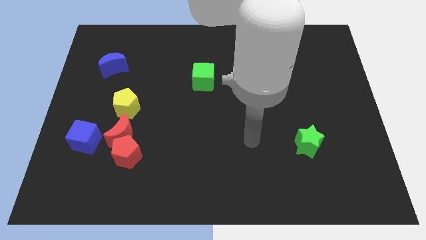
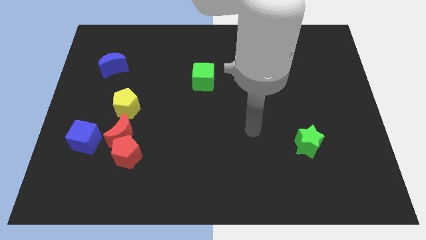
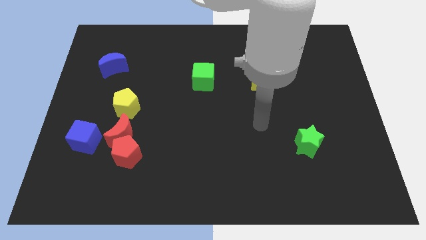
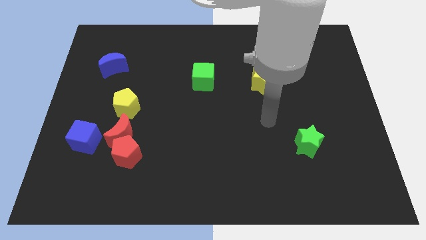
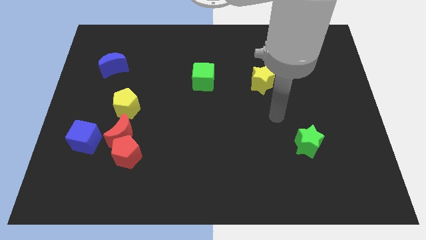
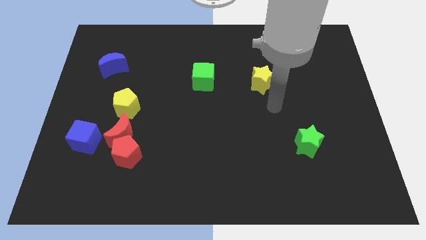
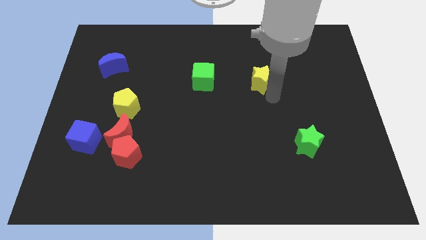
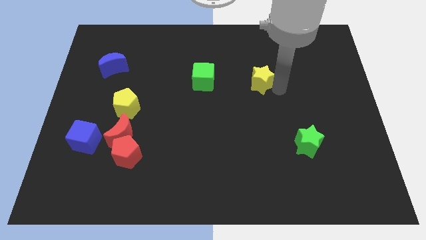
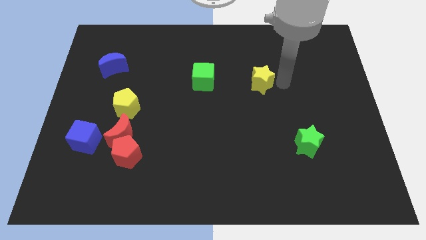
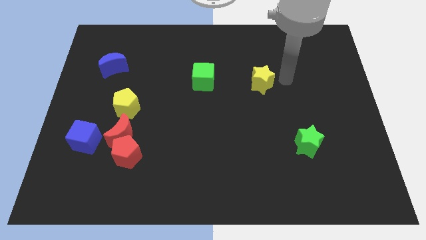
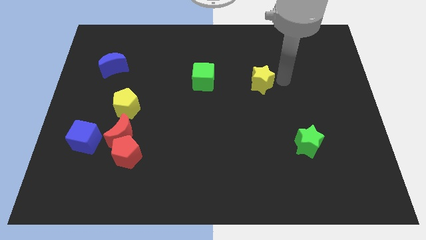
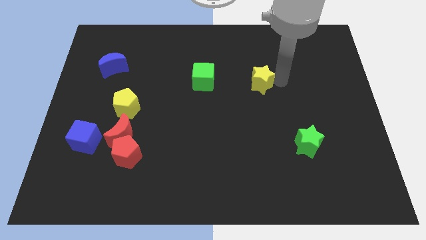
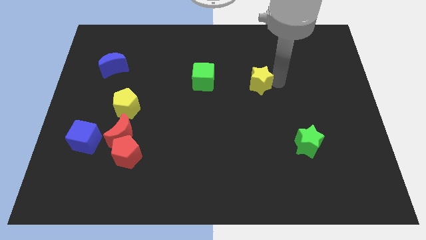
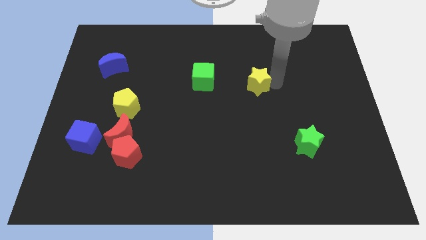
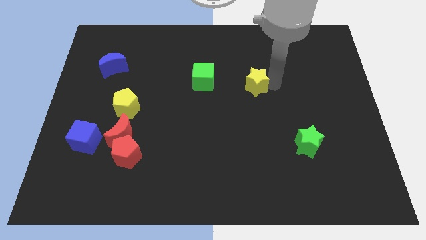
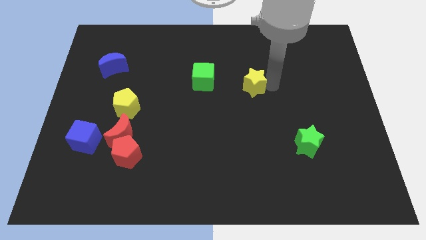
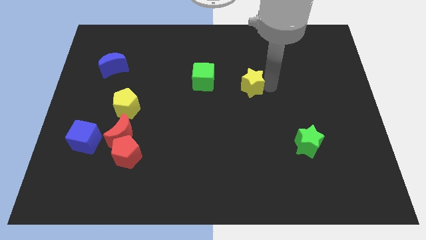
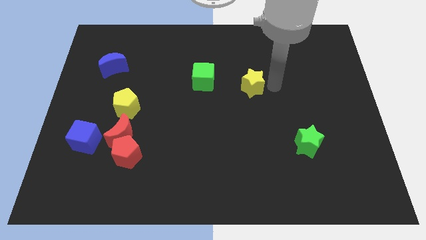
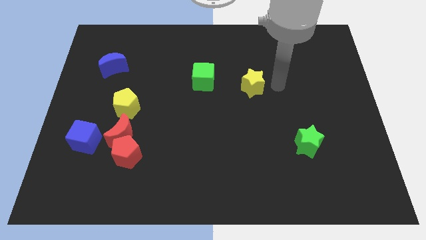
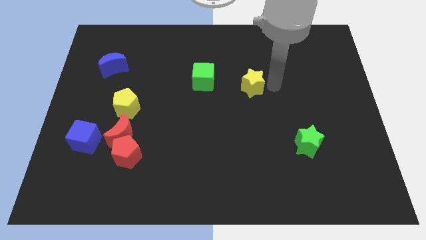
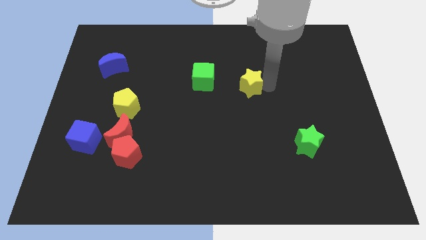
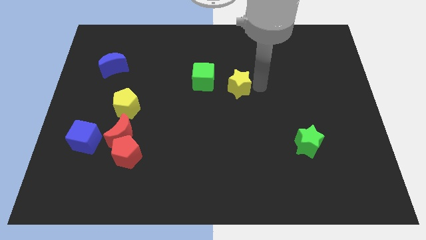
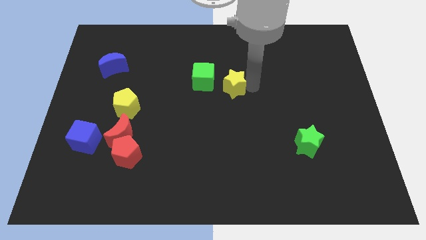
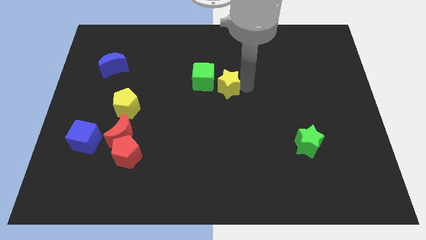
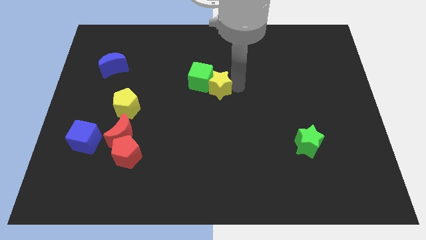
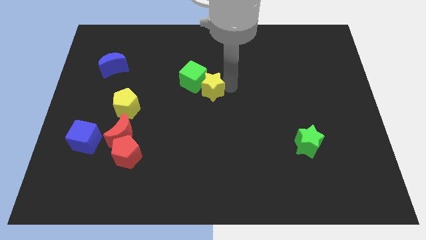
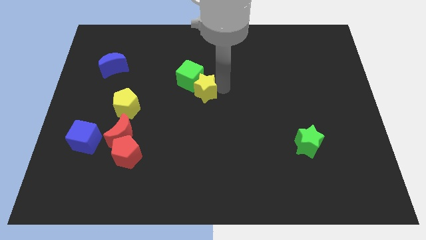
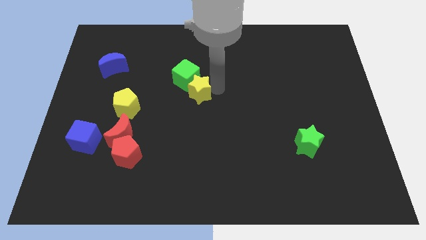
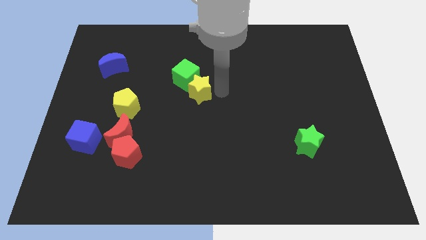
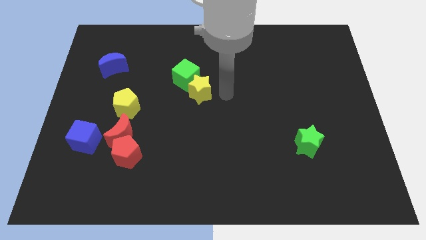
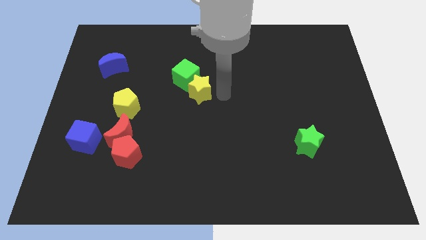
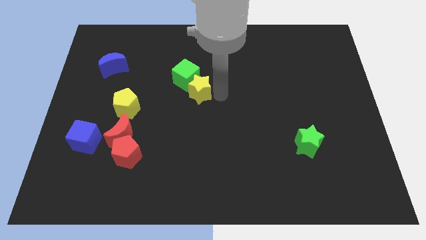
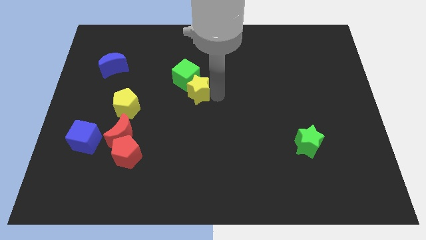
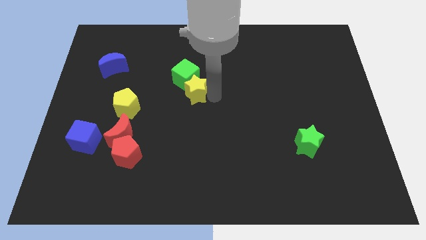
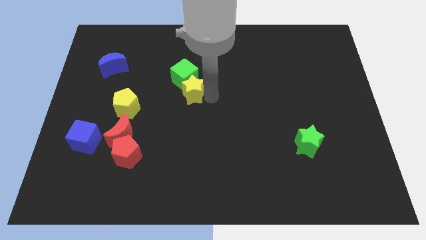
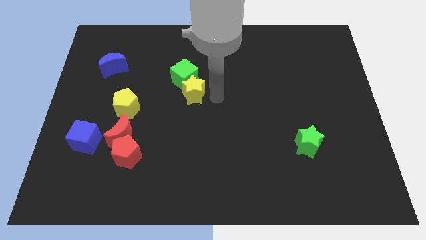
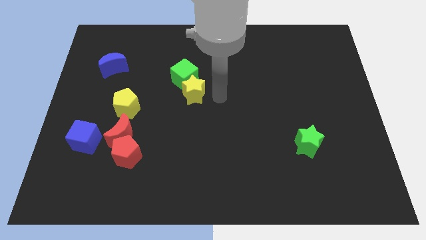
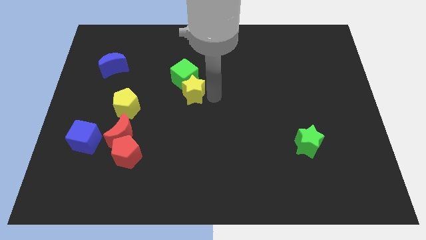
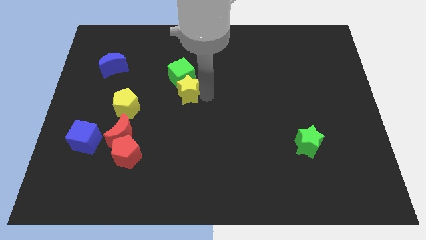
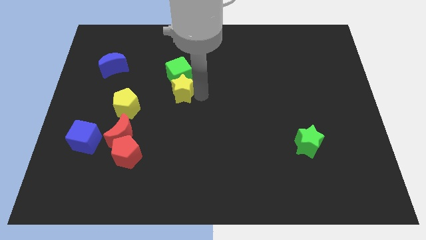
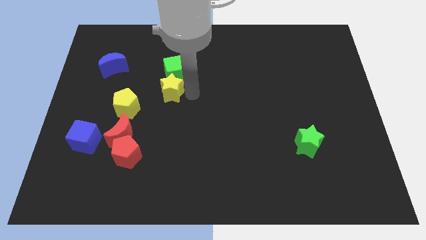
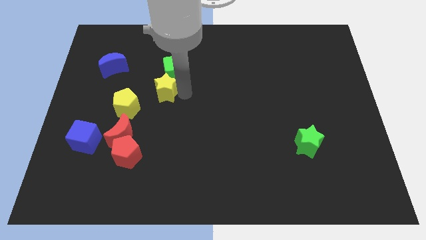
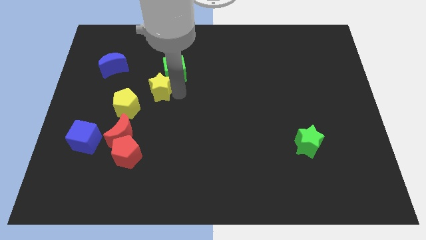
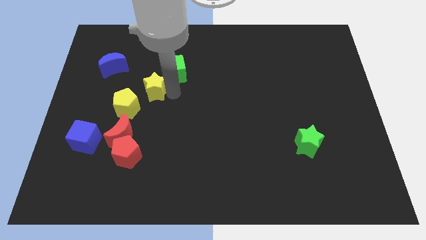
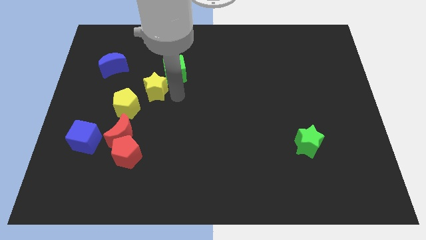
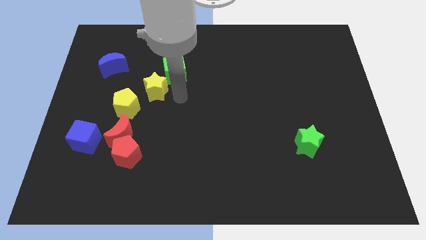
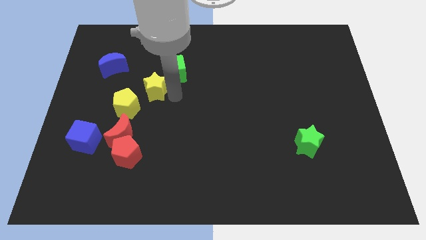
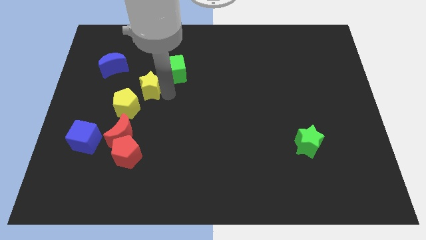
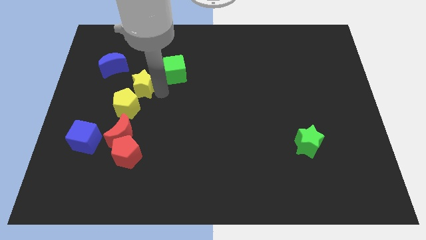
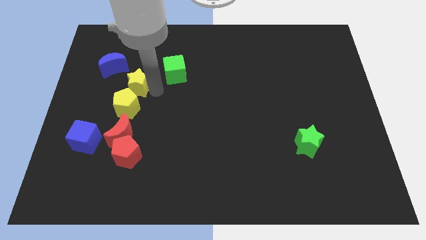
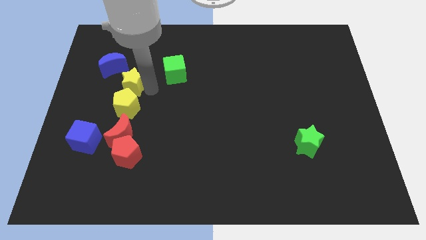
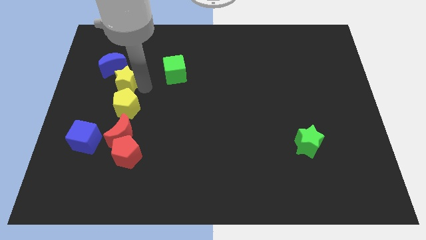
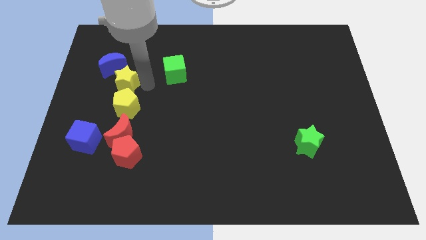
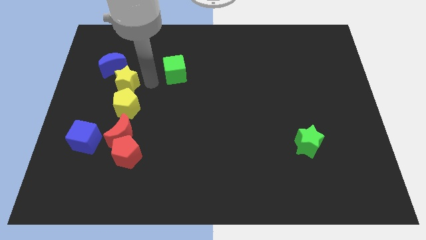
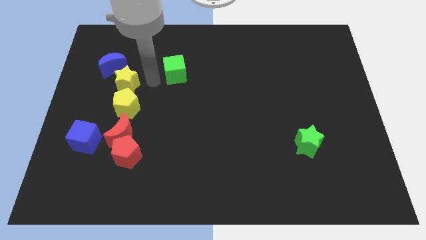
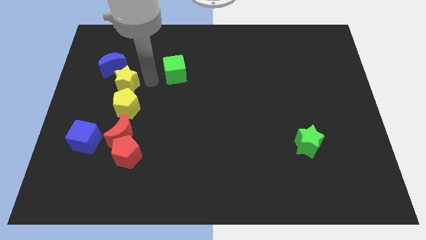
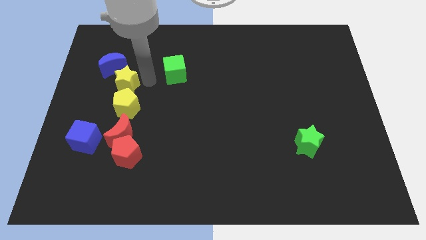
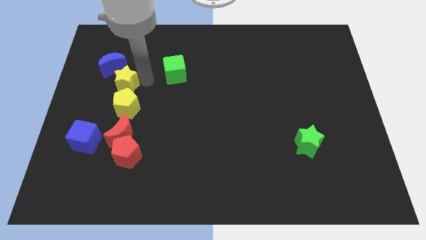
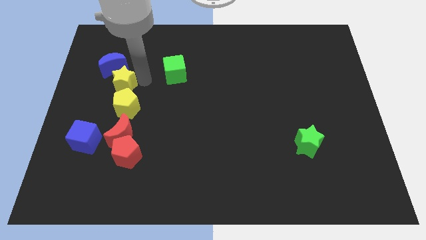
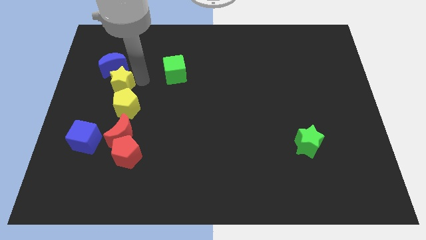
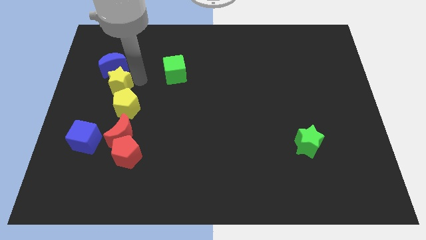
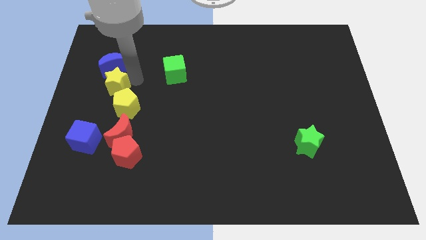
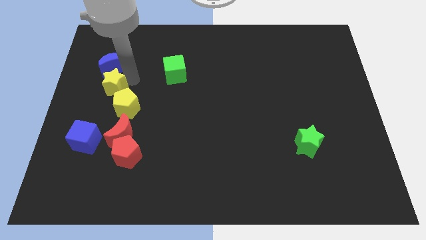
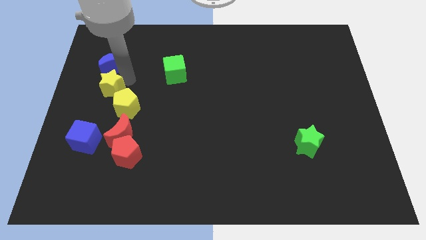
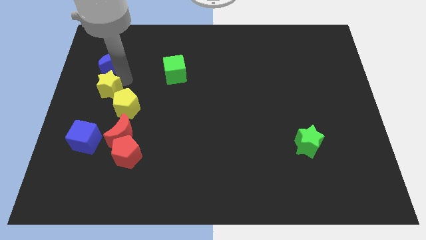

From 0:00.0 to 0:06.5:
push the yellow star to the left side of the board
